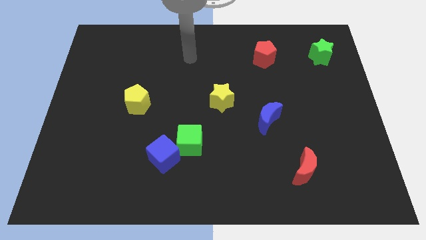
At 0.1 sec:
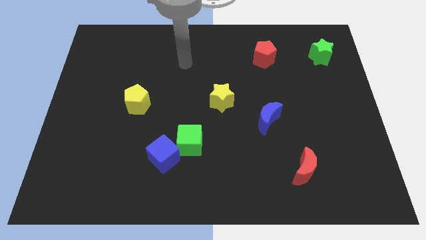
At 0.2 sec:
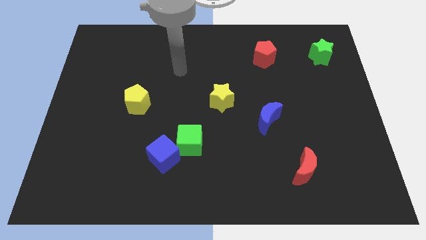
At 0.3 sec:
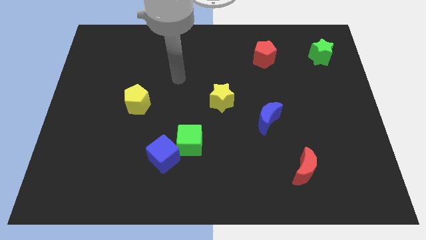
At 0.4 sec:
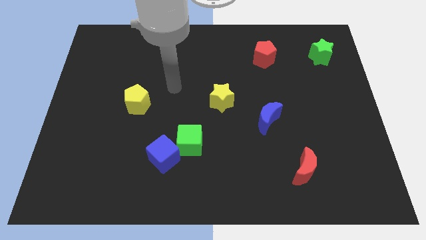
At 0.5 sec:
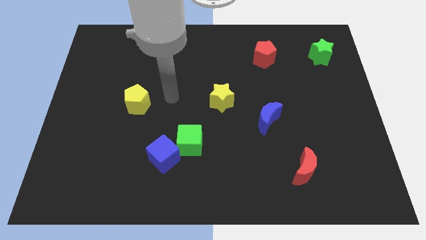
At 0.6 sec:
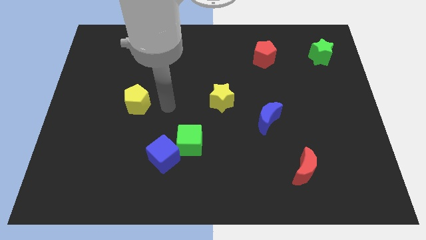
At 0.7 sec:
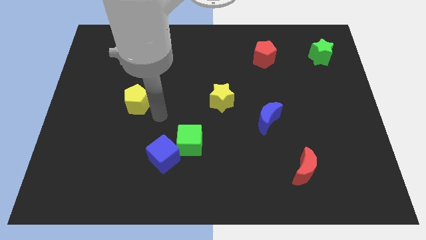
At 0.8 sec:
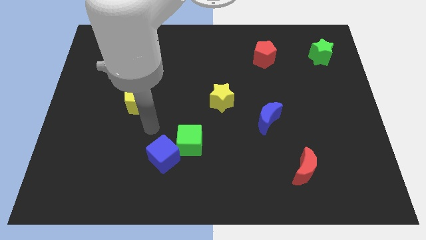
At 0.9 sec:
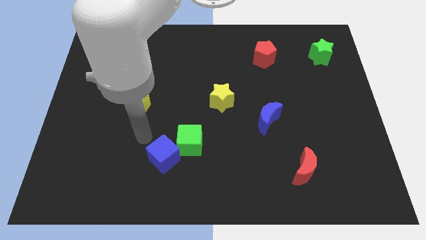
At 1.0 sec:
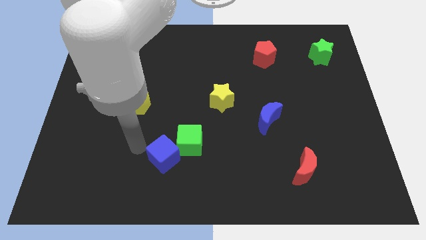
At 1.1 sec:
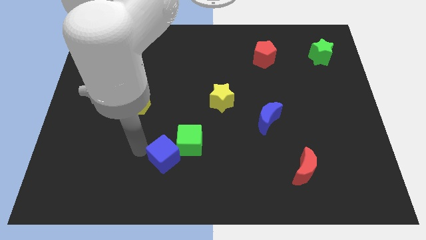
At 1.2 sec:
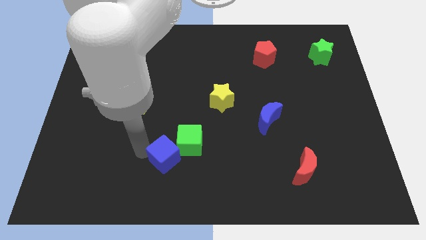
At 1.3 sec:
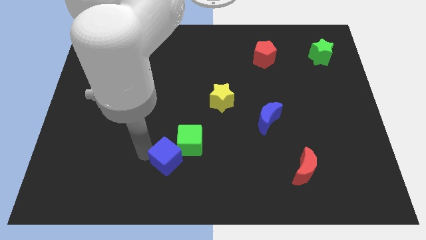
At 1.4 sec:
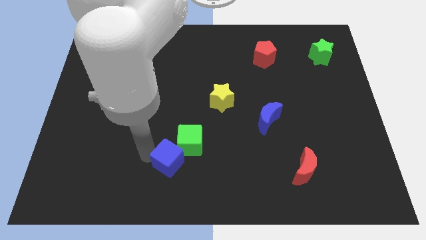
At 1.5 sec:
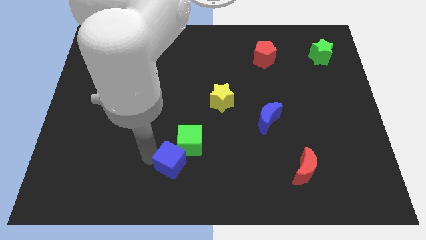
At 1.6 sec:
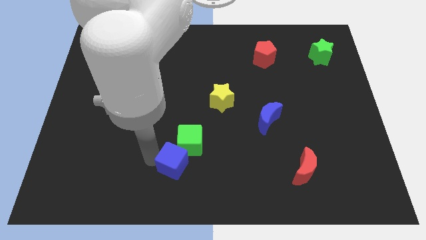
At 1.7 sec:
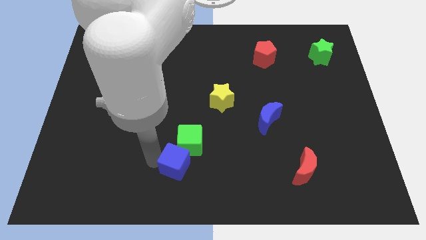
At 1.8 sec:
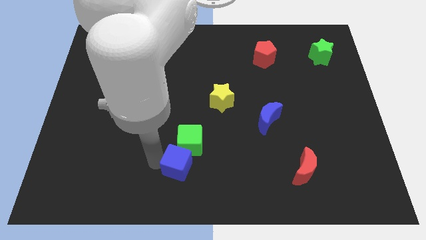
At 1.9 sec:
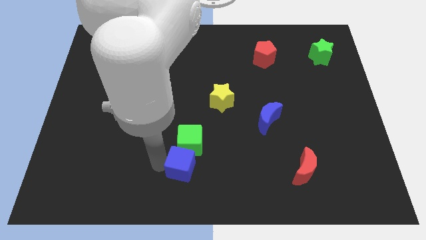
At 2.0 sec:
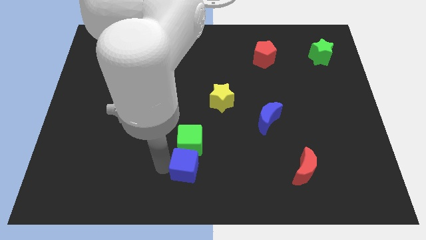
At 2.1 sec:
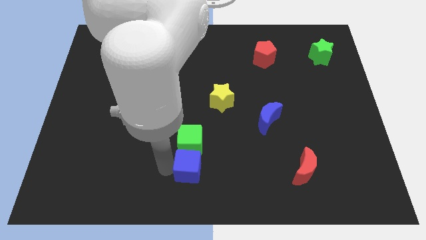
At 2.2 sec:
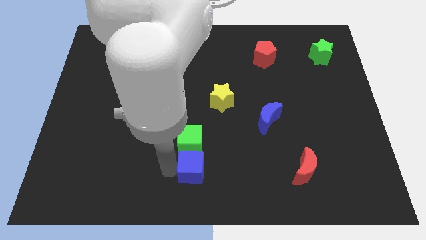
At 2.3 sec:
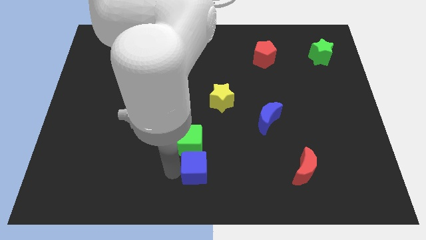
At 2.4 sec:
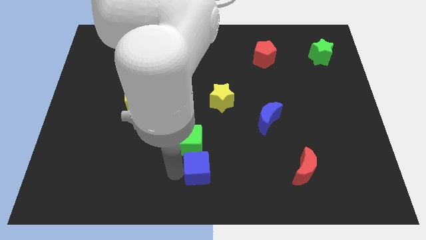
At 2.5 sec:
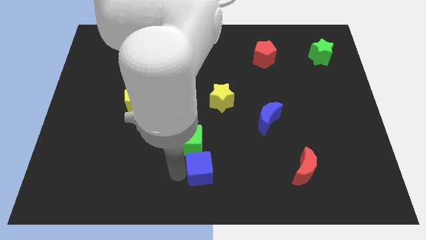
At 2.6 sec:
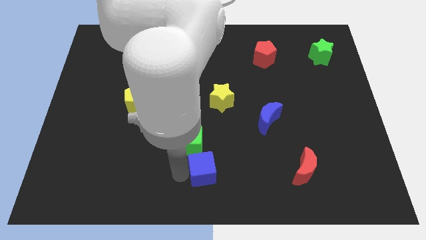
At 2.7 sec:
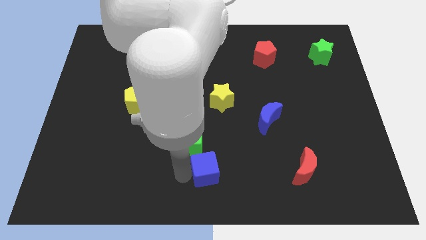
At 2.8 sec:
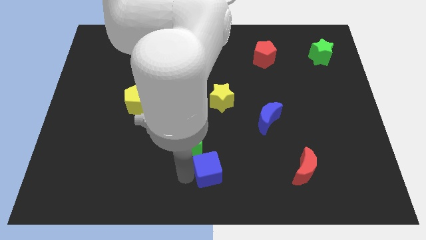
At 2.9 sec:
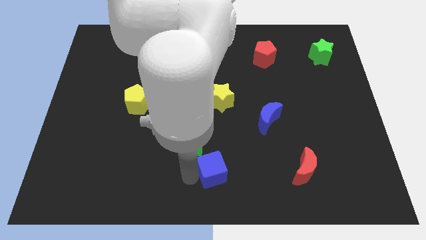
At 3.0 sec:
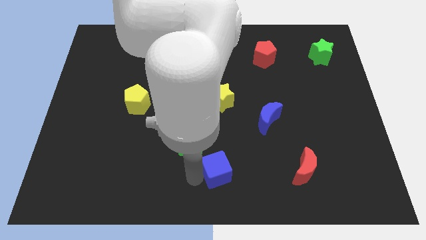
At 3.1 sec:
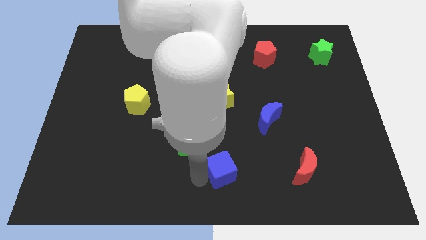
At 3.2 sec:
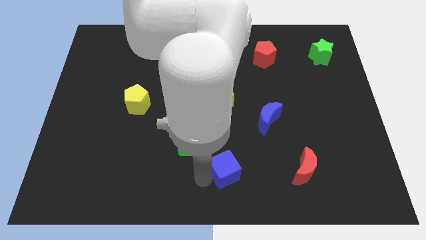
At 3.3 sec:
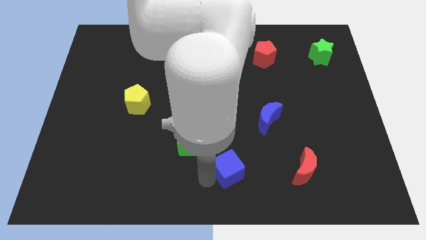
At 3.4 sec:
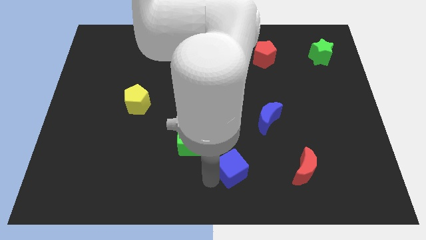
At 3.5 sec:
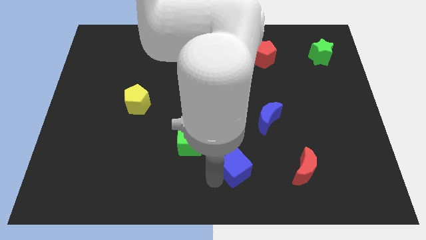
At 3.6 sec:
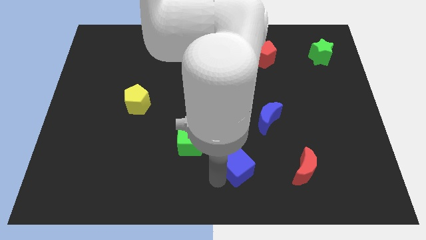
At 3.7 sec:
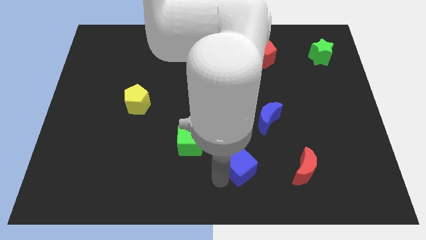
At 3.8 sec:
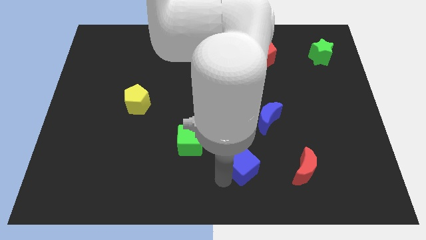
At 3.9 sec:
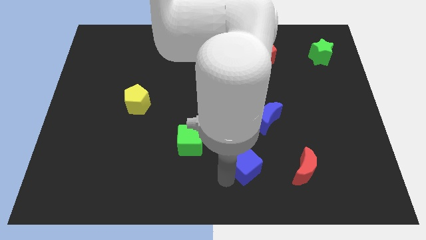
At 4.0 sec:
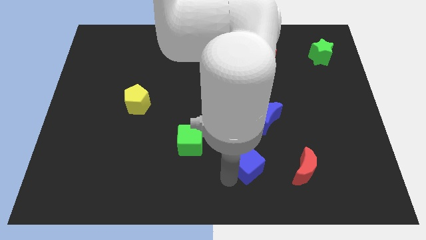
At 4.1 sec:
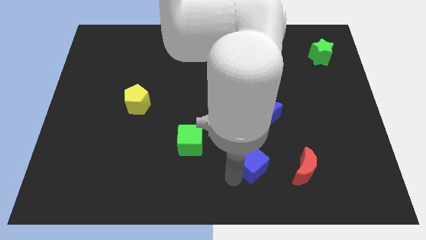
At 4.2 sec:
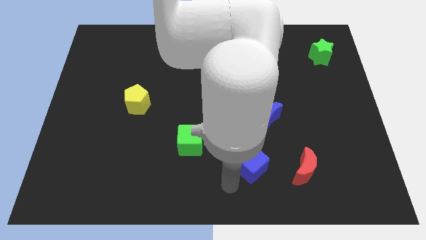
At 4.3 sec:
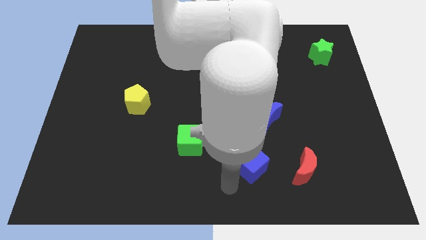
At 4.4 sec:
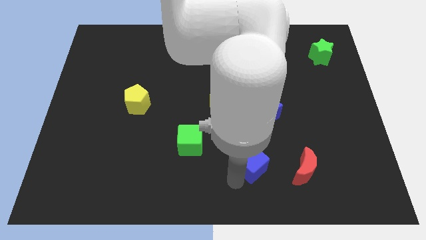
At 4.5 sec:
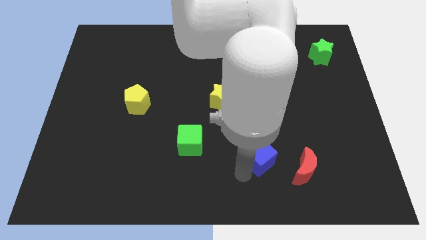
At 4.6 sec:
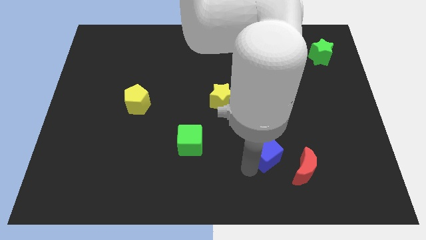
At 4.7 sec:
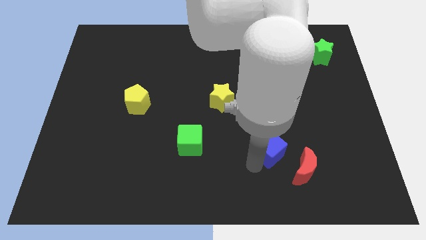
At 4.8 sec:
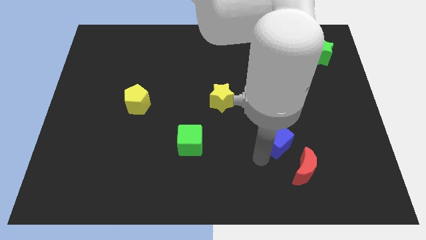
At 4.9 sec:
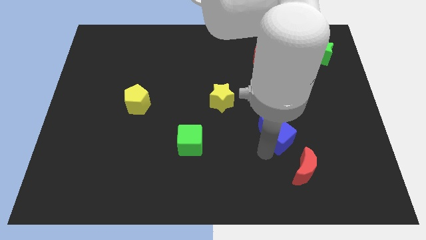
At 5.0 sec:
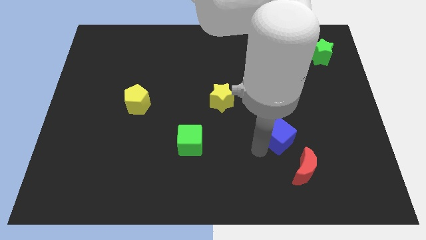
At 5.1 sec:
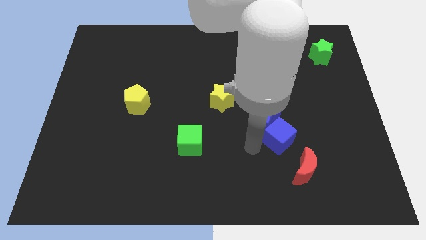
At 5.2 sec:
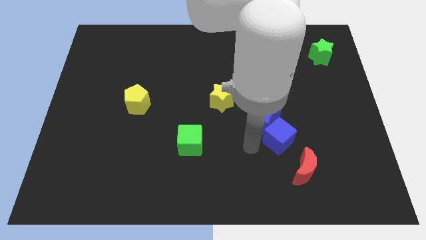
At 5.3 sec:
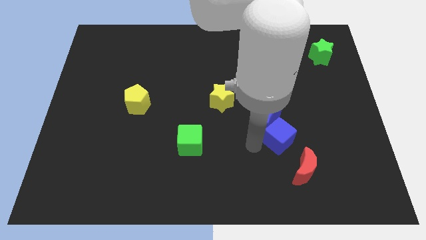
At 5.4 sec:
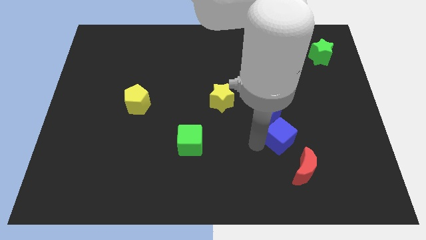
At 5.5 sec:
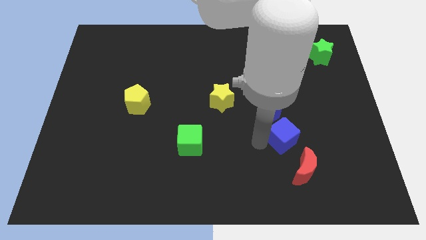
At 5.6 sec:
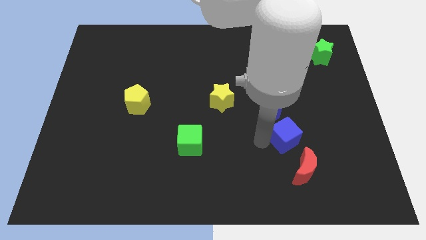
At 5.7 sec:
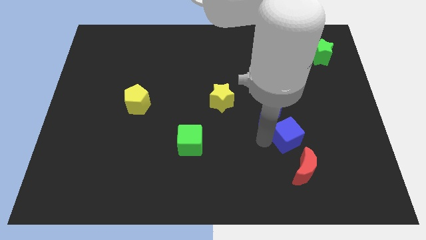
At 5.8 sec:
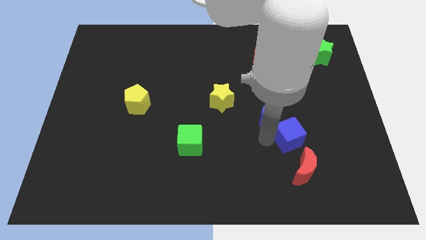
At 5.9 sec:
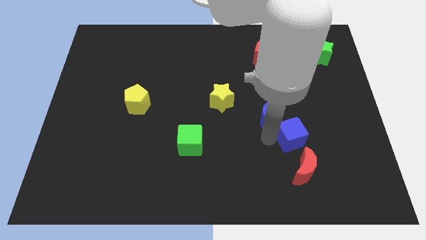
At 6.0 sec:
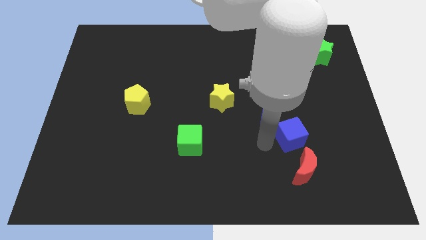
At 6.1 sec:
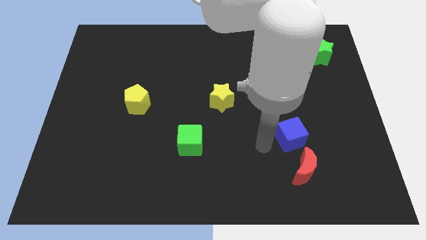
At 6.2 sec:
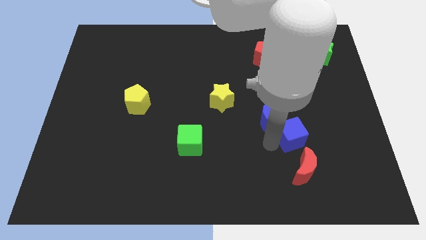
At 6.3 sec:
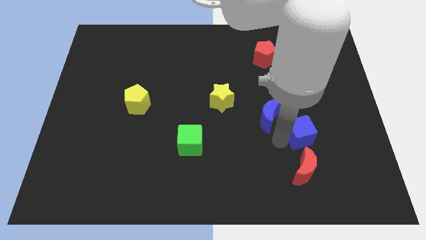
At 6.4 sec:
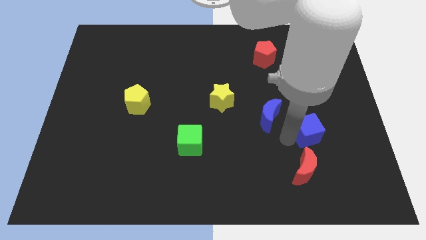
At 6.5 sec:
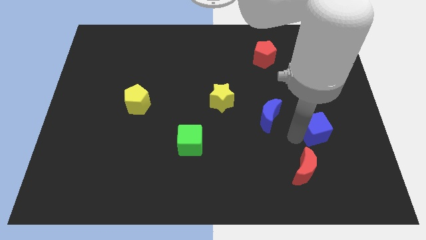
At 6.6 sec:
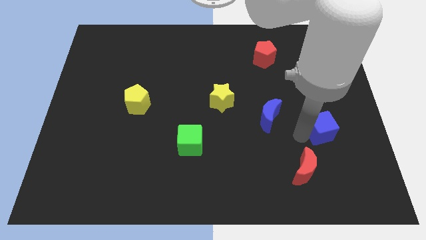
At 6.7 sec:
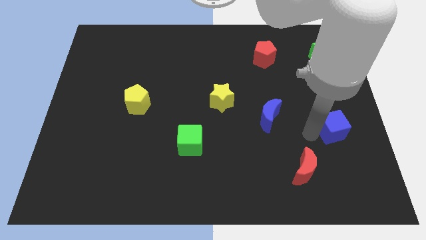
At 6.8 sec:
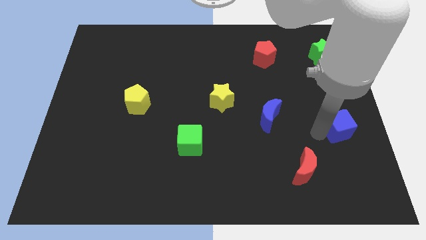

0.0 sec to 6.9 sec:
slide the blue cube to the right side of the board
